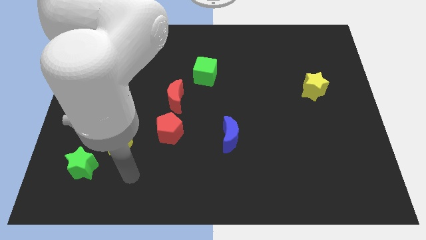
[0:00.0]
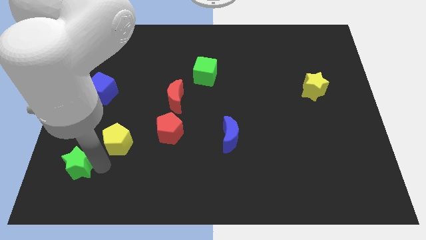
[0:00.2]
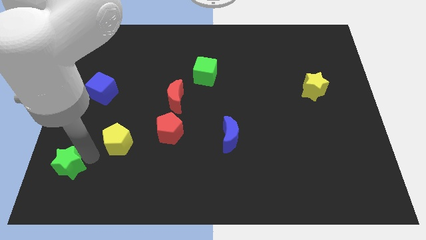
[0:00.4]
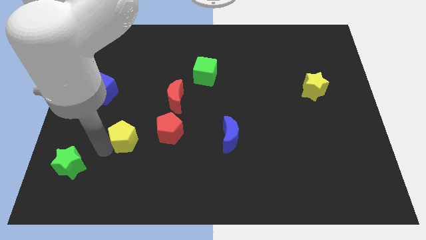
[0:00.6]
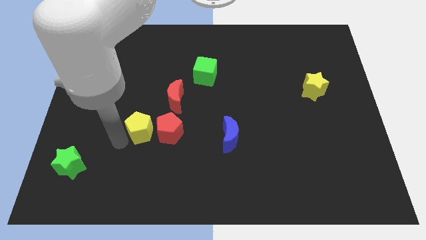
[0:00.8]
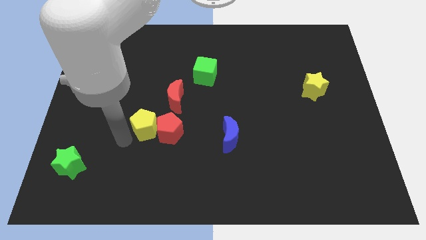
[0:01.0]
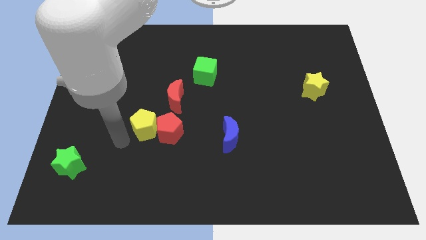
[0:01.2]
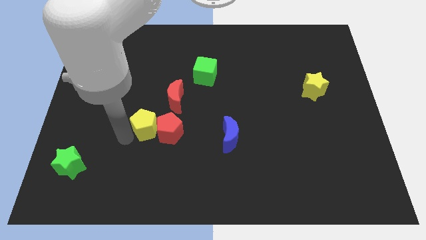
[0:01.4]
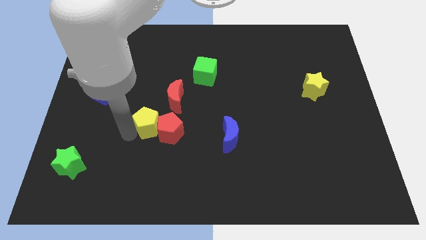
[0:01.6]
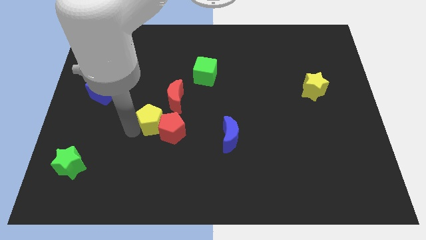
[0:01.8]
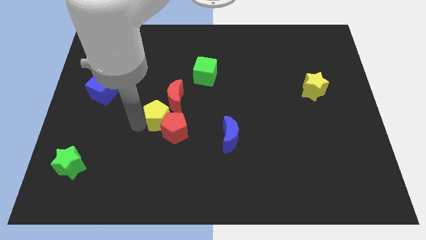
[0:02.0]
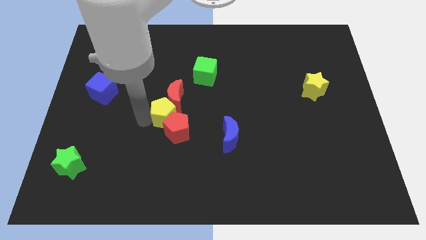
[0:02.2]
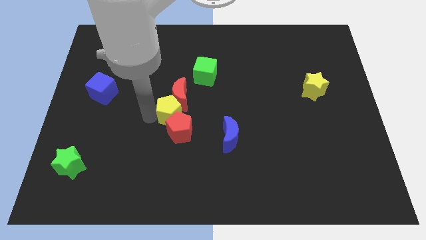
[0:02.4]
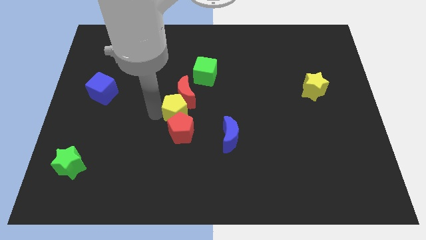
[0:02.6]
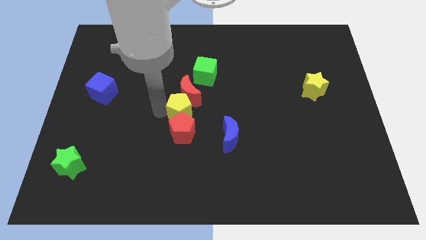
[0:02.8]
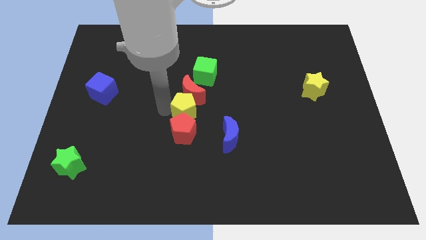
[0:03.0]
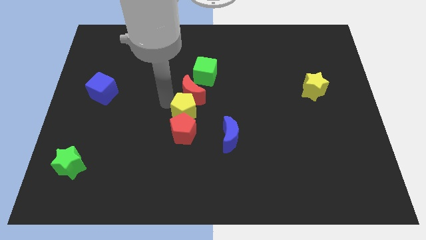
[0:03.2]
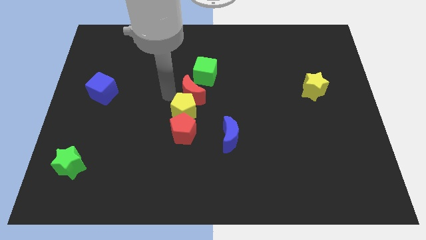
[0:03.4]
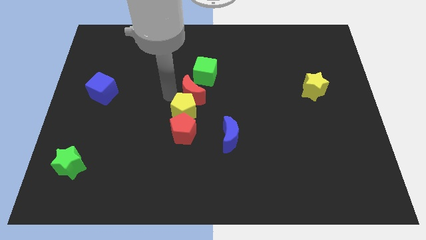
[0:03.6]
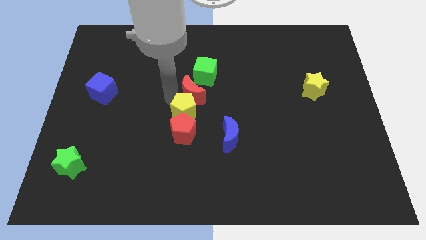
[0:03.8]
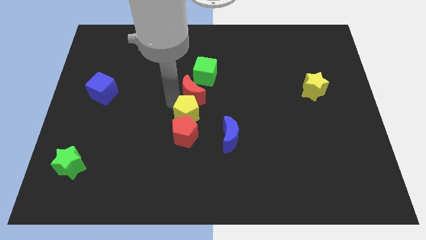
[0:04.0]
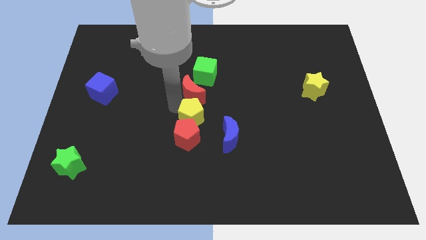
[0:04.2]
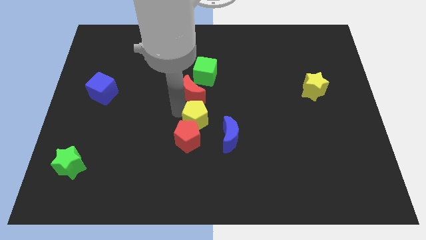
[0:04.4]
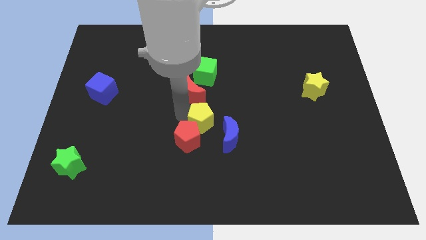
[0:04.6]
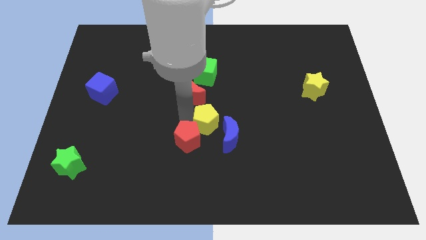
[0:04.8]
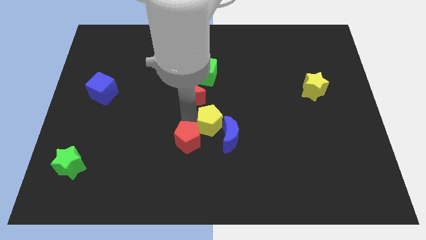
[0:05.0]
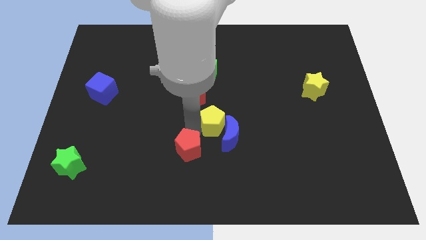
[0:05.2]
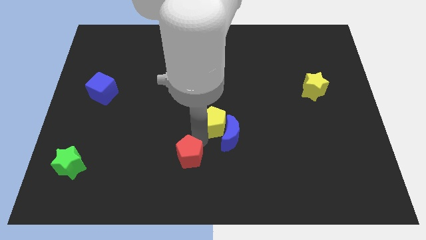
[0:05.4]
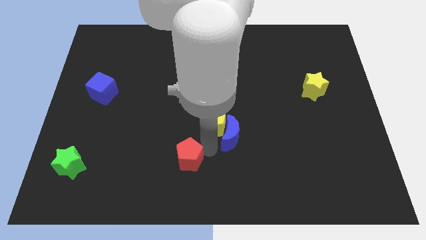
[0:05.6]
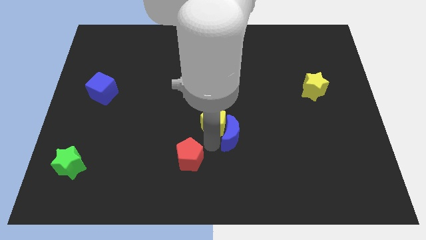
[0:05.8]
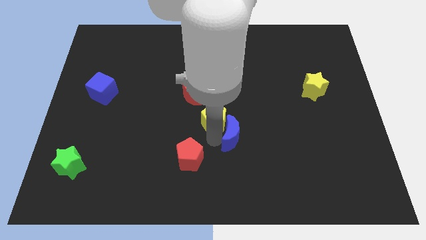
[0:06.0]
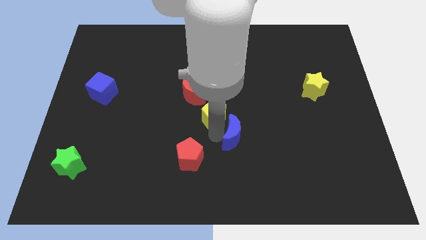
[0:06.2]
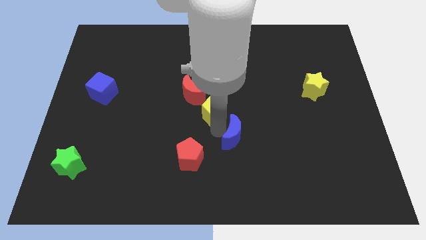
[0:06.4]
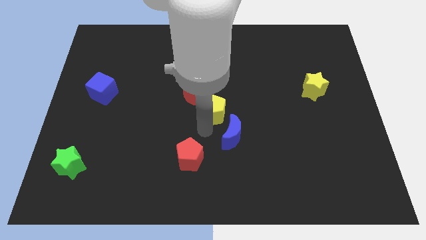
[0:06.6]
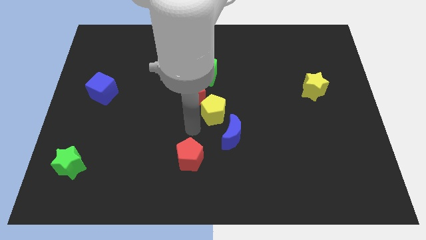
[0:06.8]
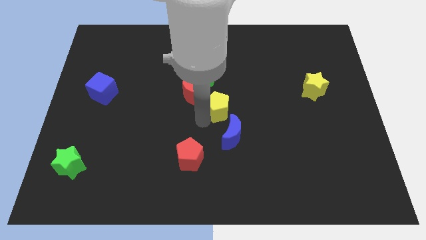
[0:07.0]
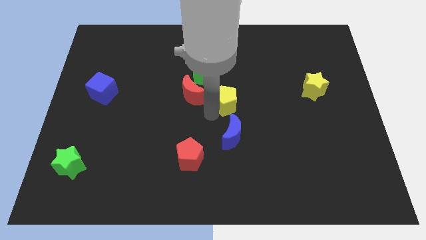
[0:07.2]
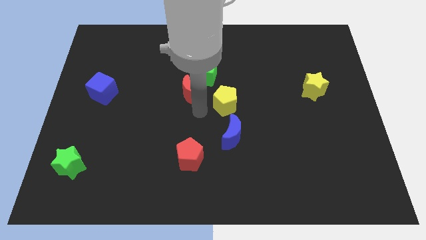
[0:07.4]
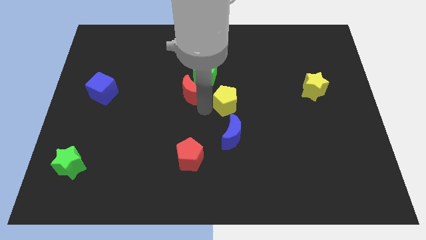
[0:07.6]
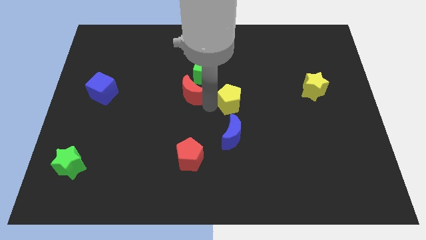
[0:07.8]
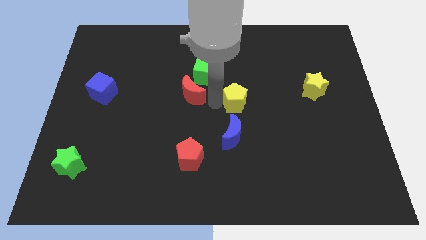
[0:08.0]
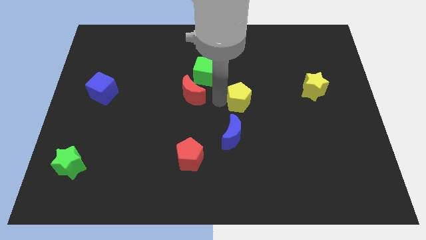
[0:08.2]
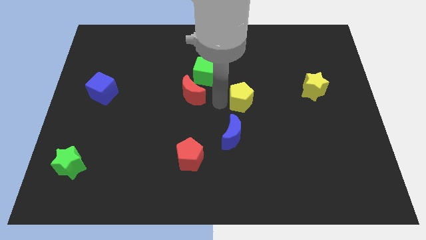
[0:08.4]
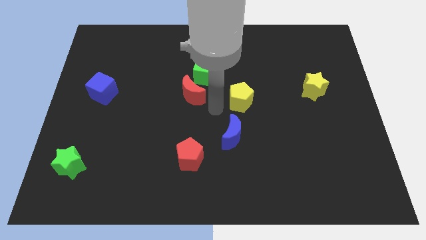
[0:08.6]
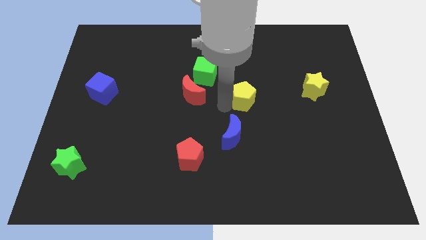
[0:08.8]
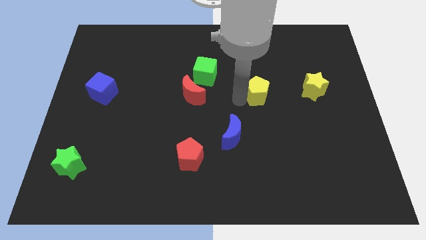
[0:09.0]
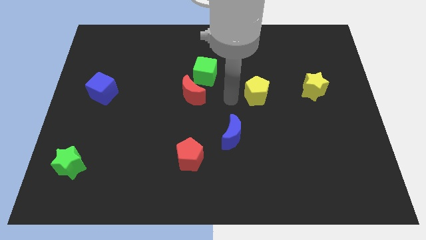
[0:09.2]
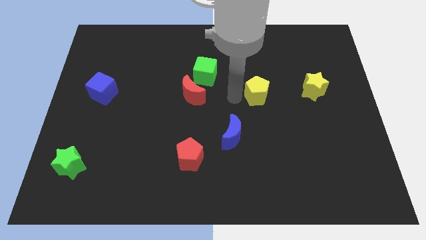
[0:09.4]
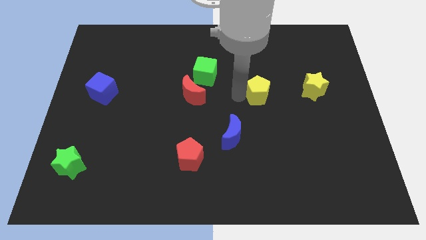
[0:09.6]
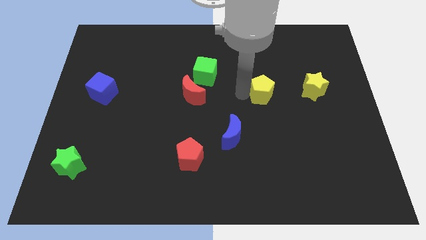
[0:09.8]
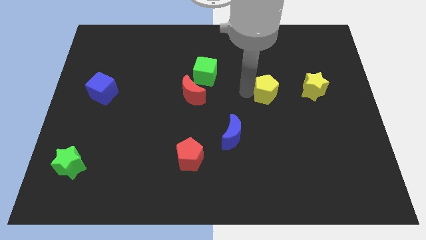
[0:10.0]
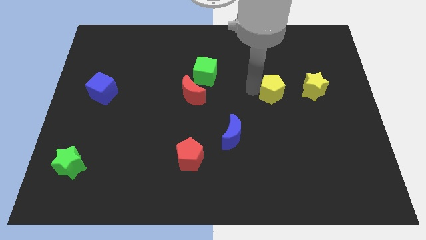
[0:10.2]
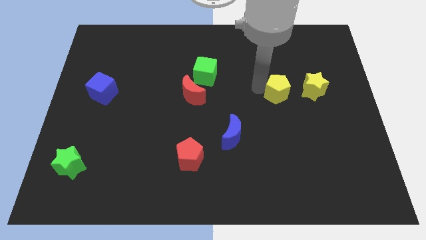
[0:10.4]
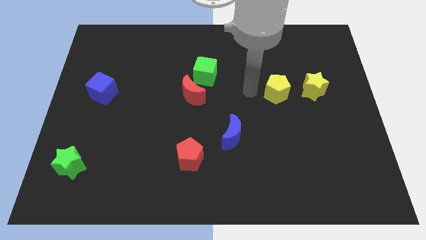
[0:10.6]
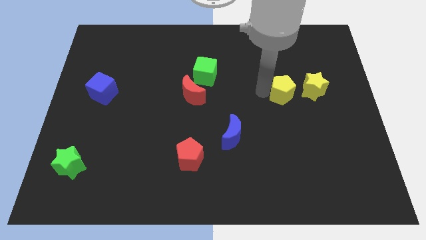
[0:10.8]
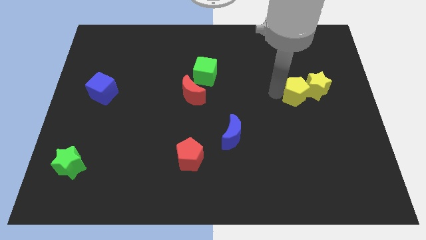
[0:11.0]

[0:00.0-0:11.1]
put the yellow pentagon close to the yellow star

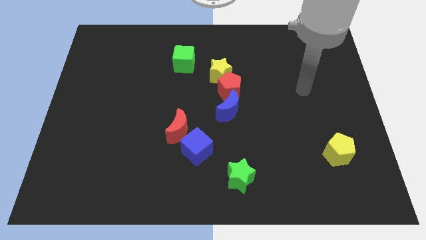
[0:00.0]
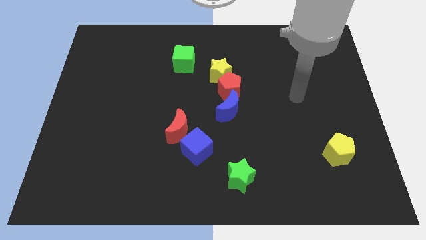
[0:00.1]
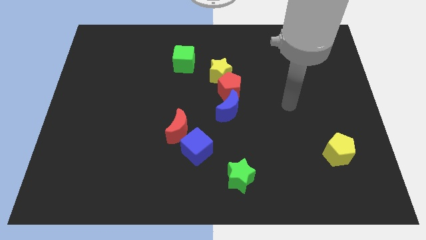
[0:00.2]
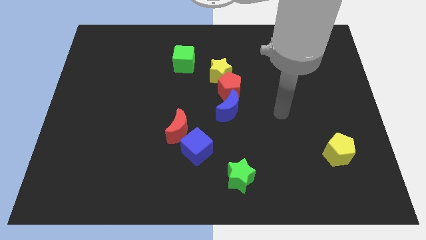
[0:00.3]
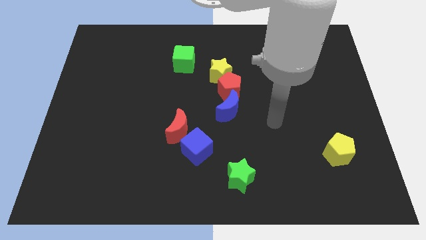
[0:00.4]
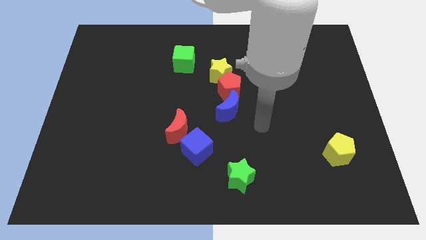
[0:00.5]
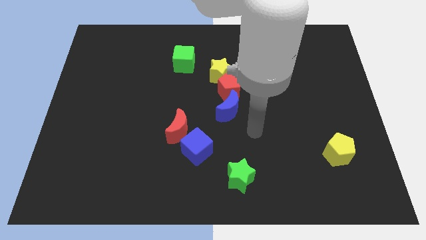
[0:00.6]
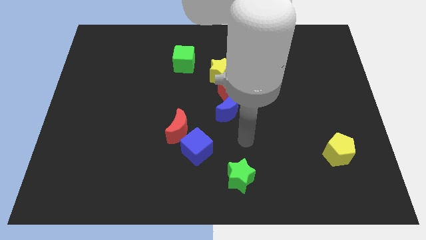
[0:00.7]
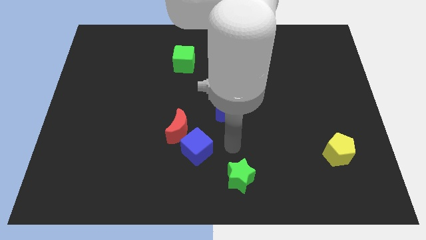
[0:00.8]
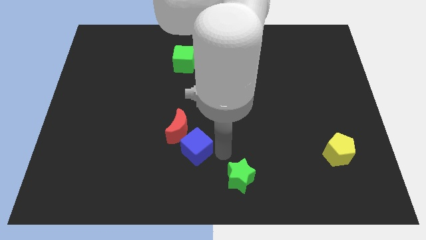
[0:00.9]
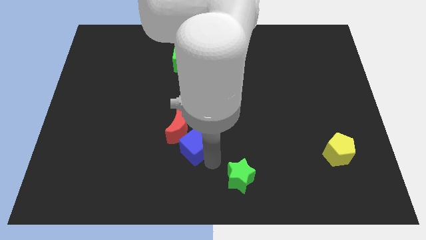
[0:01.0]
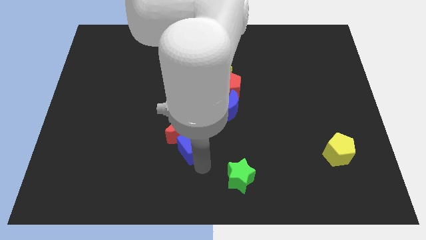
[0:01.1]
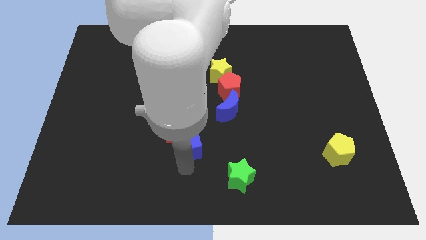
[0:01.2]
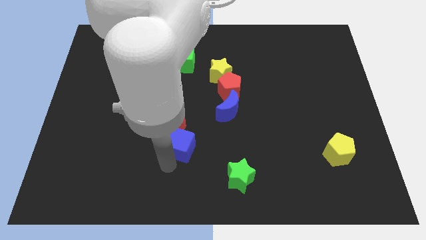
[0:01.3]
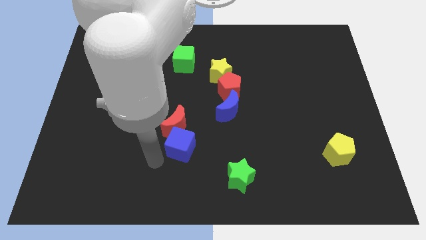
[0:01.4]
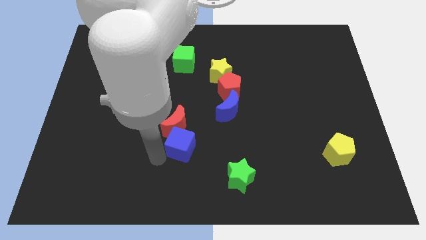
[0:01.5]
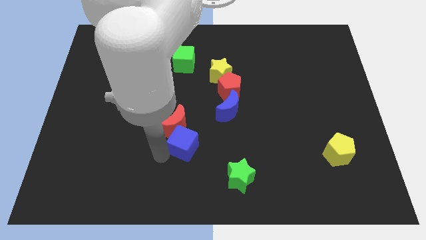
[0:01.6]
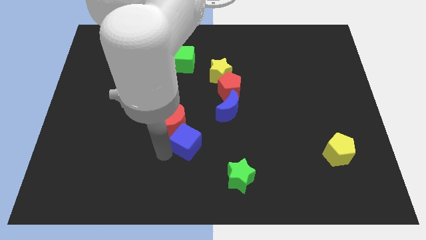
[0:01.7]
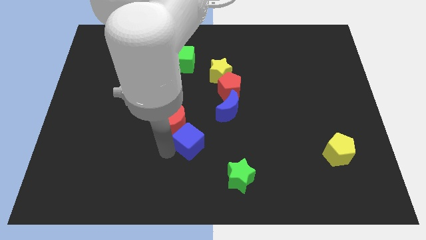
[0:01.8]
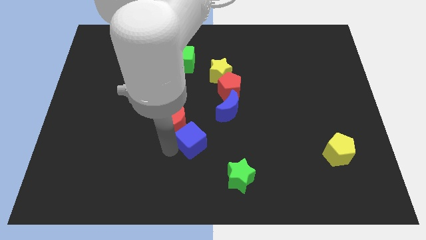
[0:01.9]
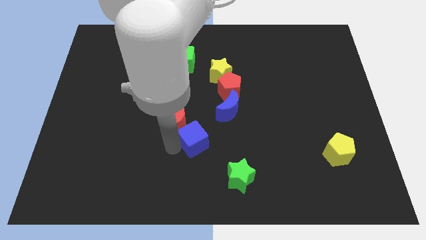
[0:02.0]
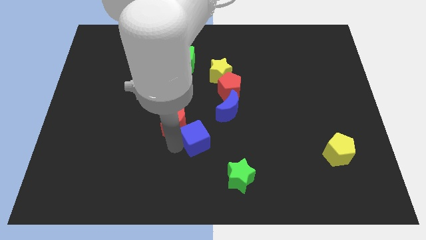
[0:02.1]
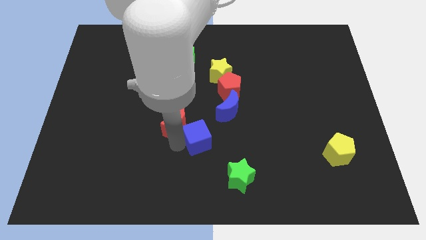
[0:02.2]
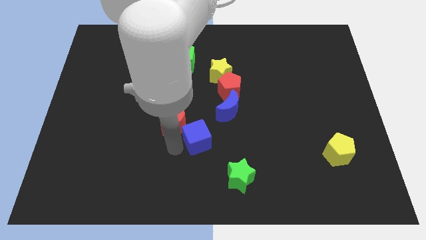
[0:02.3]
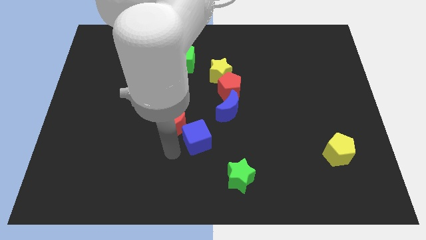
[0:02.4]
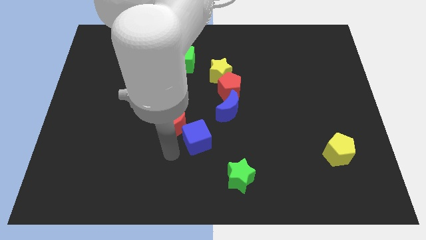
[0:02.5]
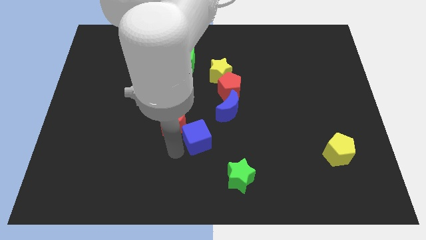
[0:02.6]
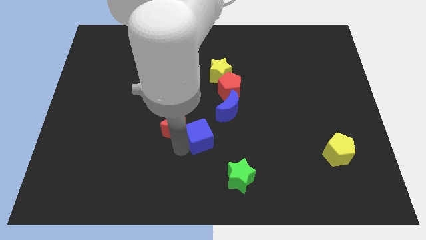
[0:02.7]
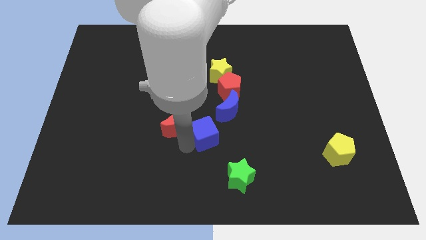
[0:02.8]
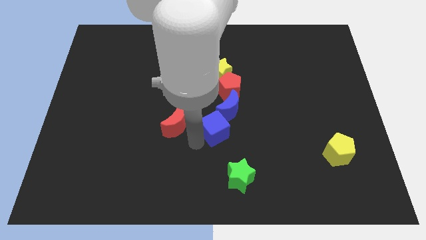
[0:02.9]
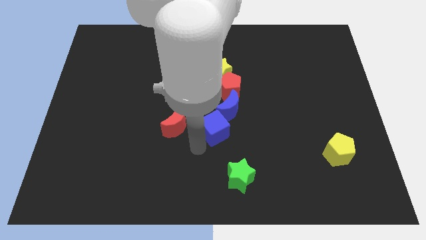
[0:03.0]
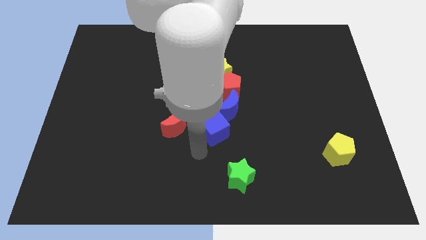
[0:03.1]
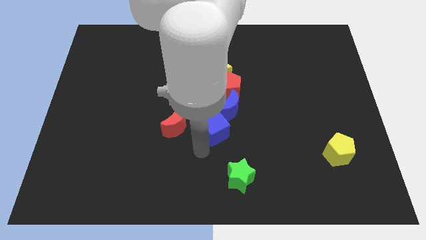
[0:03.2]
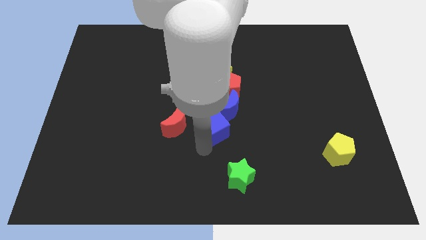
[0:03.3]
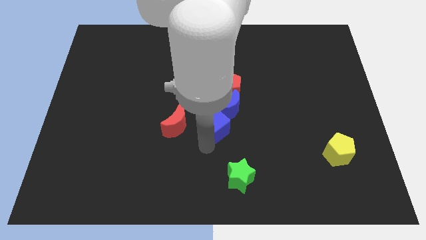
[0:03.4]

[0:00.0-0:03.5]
move the blue cube towards the blue moon
